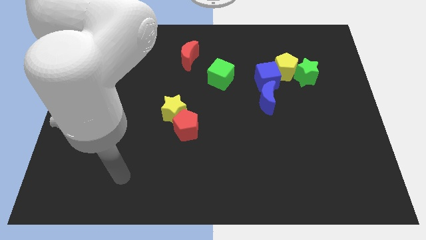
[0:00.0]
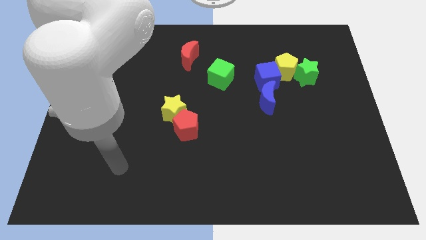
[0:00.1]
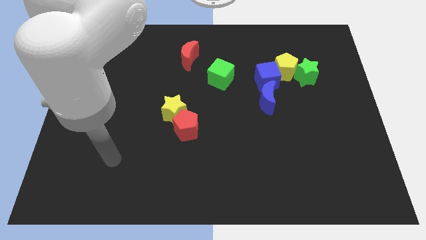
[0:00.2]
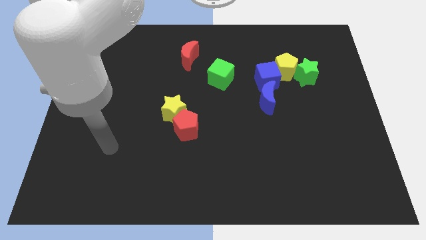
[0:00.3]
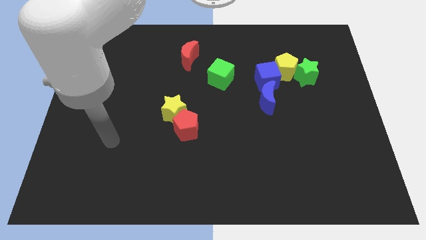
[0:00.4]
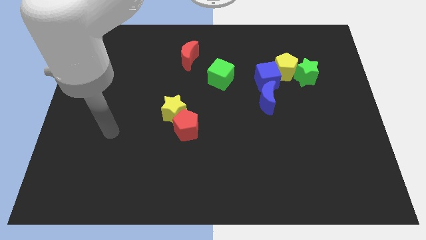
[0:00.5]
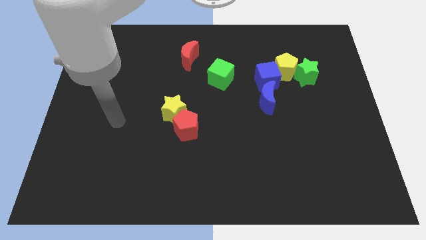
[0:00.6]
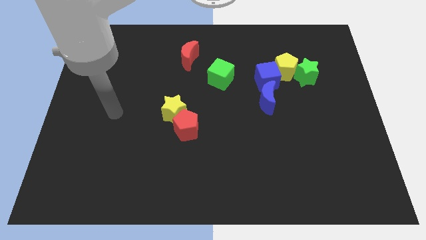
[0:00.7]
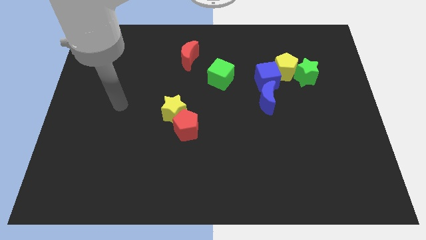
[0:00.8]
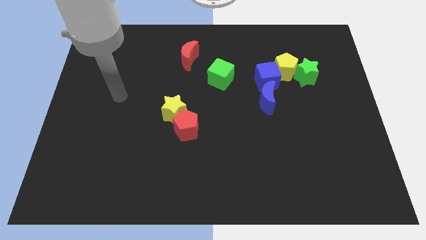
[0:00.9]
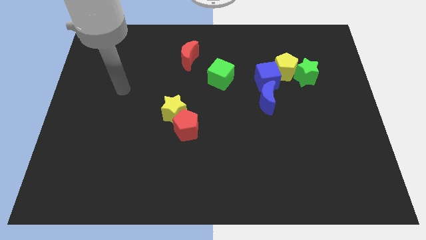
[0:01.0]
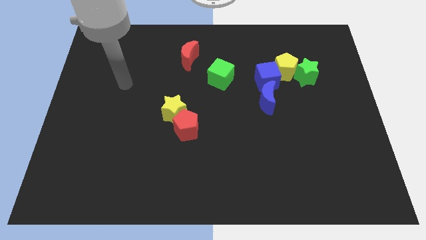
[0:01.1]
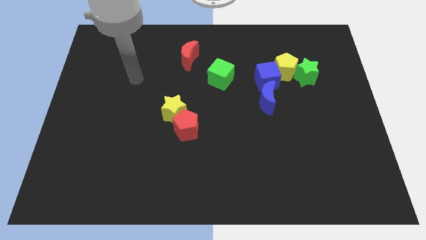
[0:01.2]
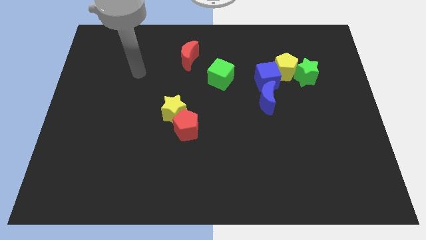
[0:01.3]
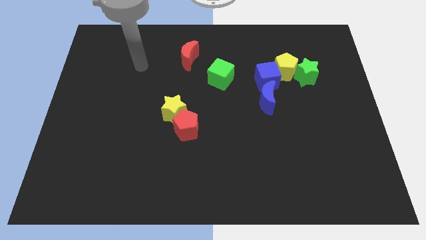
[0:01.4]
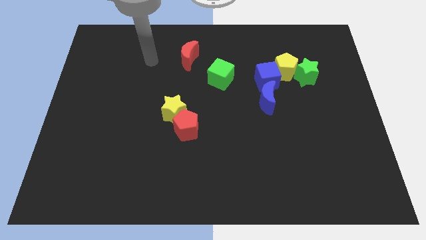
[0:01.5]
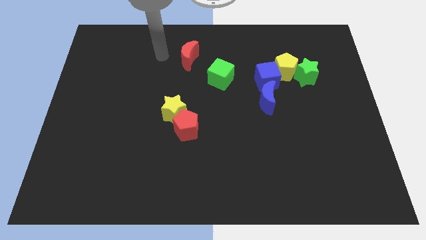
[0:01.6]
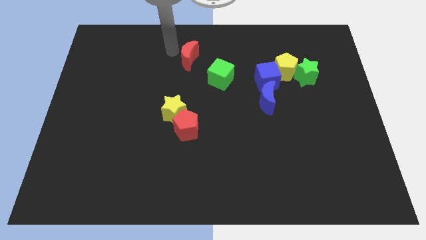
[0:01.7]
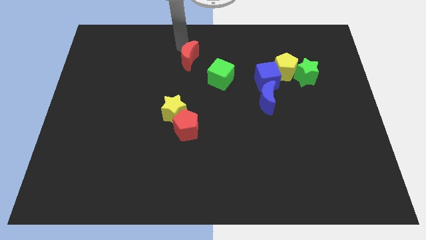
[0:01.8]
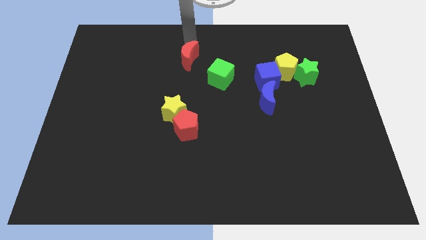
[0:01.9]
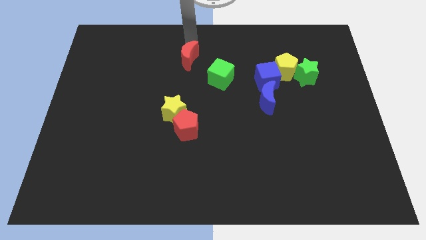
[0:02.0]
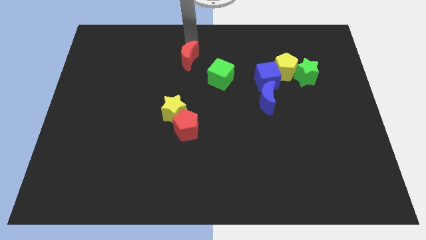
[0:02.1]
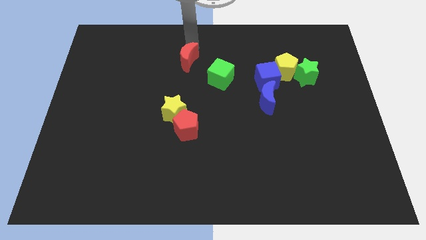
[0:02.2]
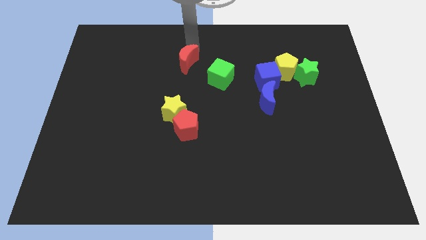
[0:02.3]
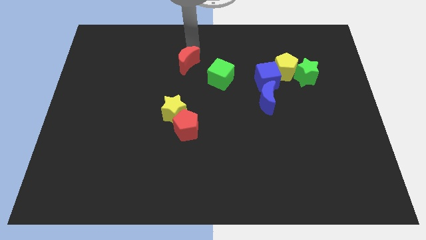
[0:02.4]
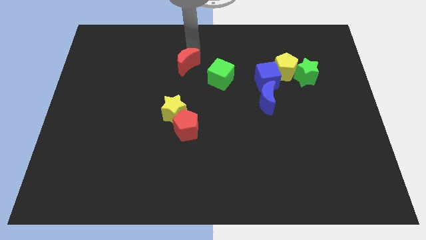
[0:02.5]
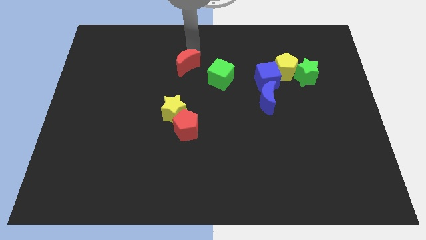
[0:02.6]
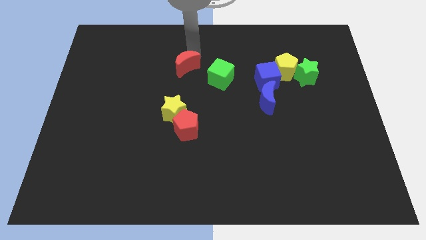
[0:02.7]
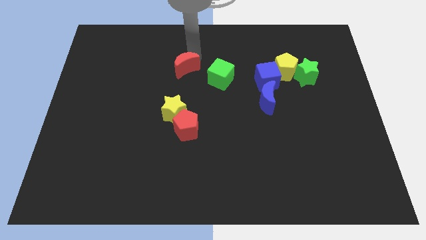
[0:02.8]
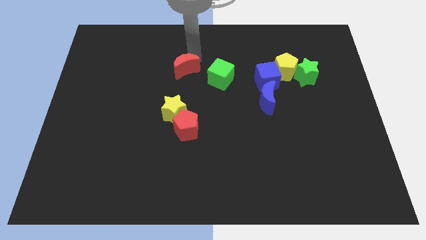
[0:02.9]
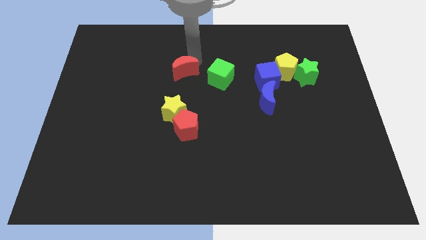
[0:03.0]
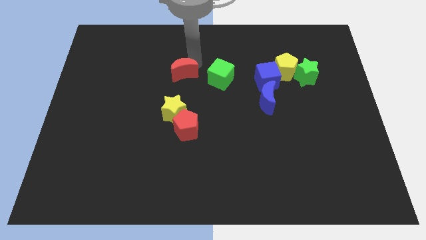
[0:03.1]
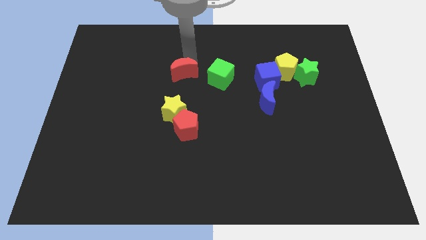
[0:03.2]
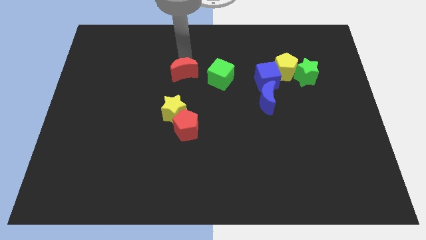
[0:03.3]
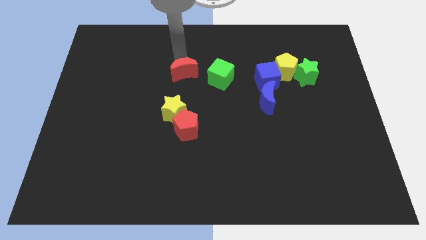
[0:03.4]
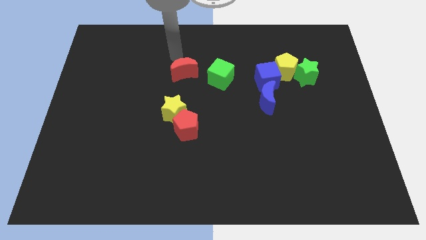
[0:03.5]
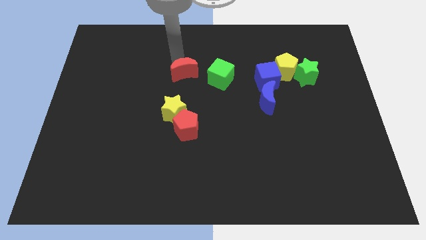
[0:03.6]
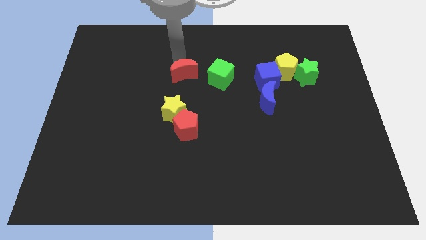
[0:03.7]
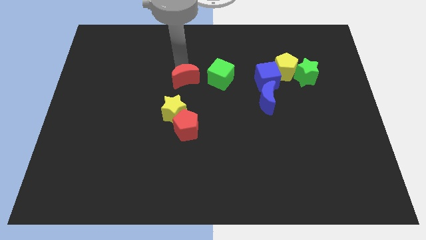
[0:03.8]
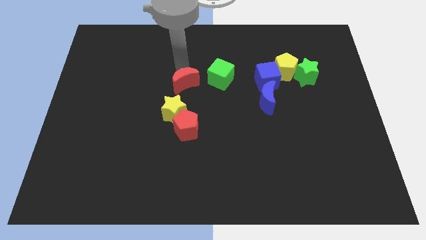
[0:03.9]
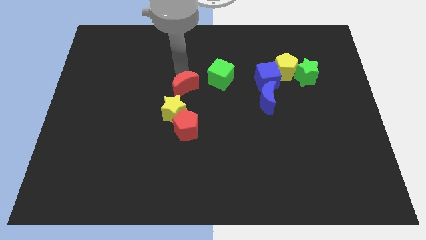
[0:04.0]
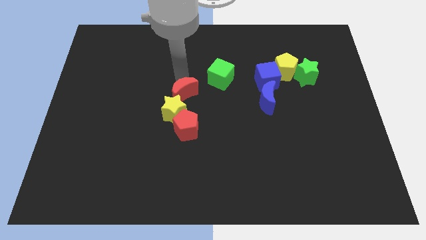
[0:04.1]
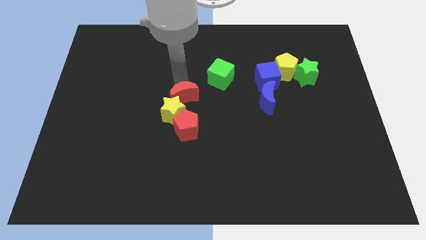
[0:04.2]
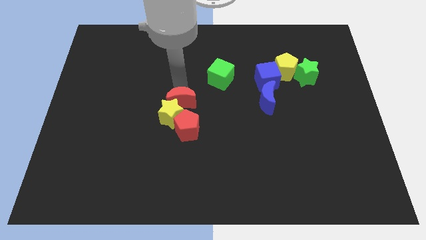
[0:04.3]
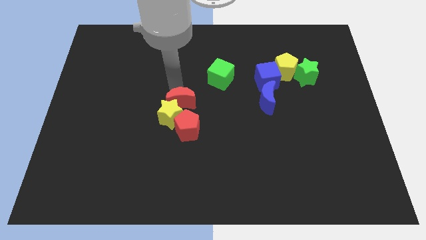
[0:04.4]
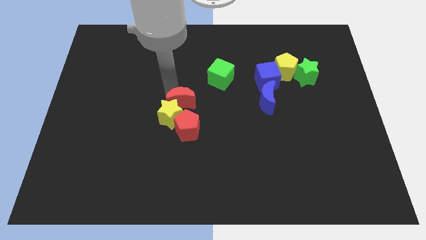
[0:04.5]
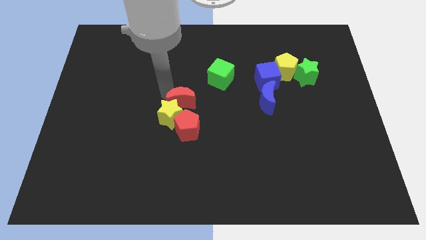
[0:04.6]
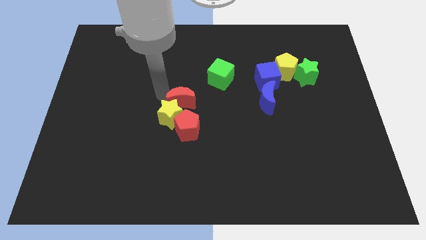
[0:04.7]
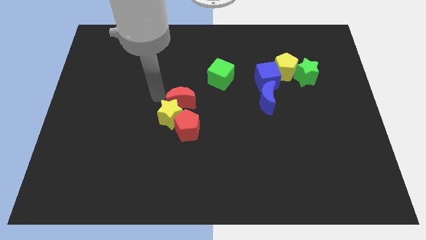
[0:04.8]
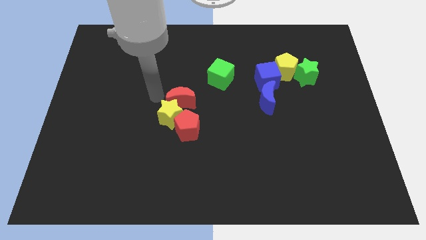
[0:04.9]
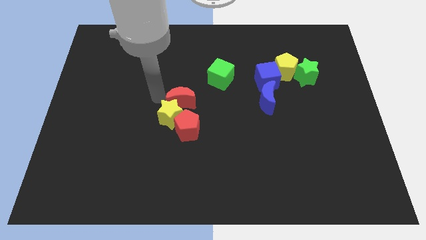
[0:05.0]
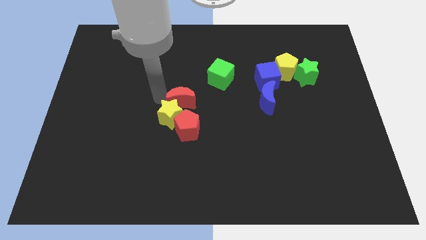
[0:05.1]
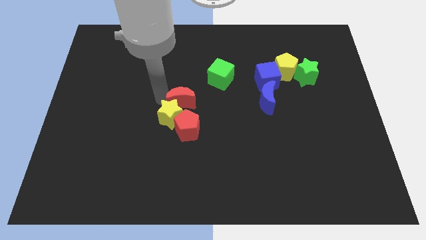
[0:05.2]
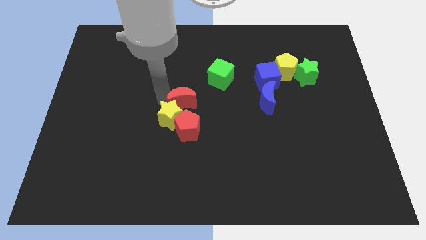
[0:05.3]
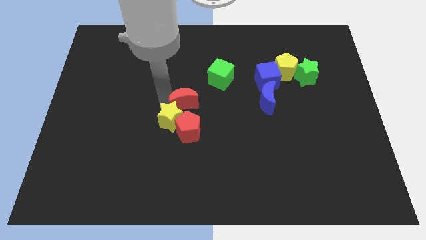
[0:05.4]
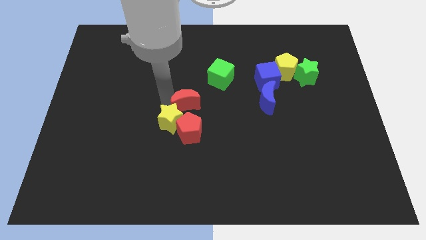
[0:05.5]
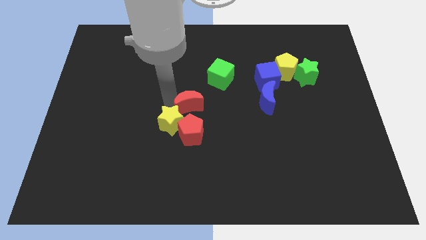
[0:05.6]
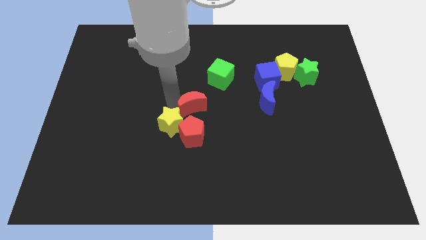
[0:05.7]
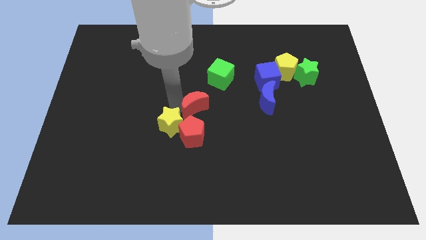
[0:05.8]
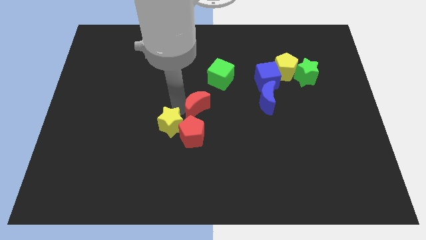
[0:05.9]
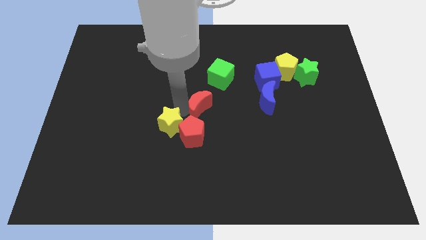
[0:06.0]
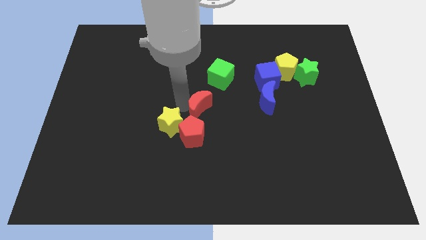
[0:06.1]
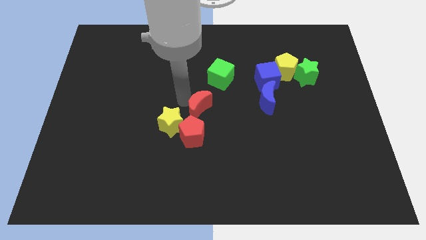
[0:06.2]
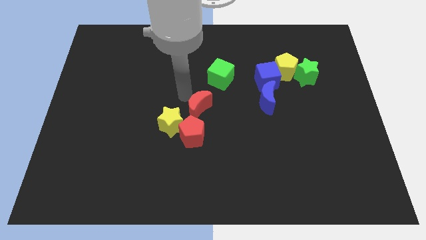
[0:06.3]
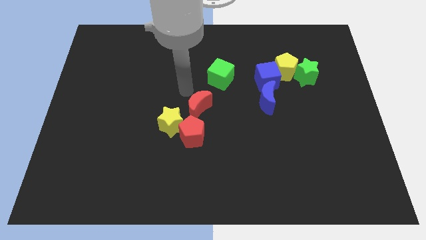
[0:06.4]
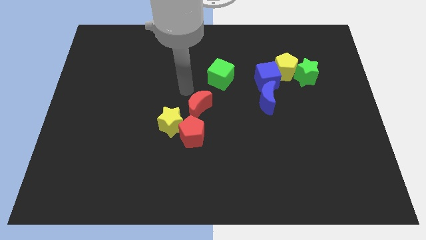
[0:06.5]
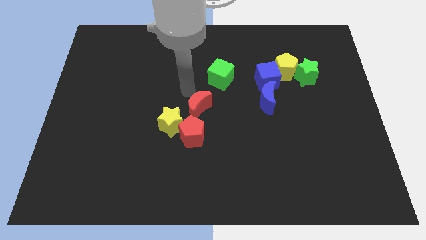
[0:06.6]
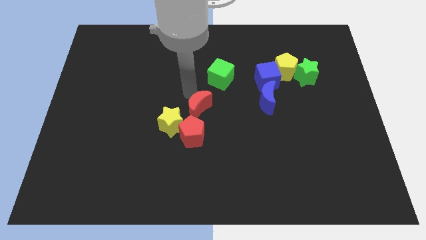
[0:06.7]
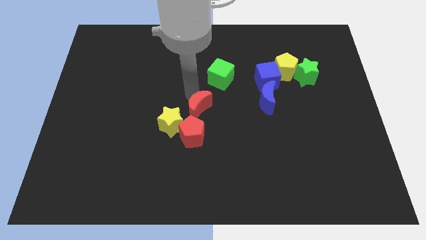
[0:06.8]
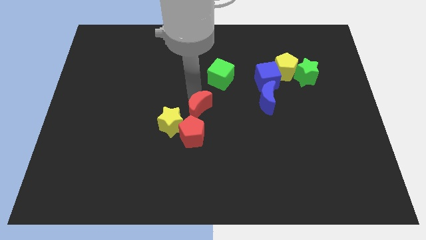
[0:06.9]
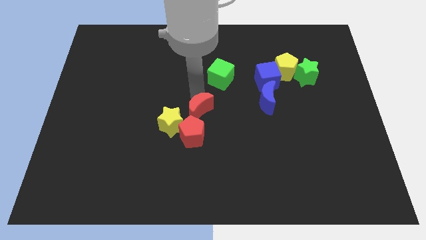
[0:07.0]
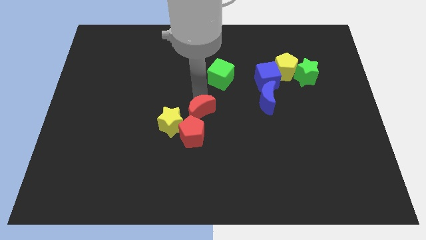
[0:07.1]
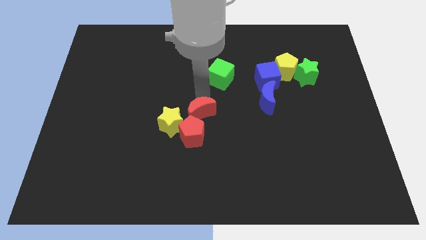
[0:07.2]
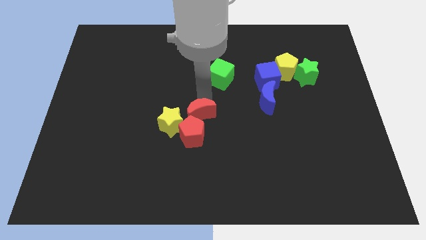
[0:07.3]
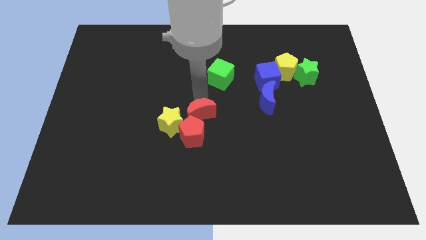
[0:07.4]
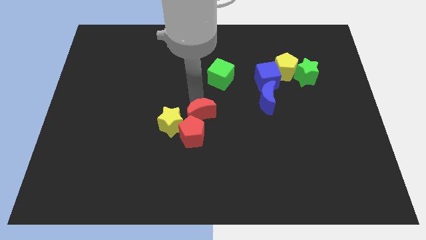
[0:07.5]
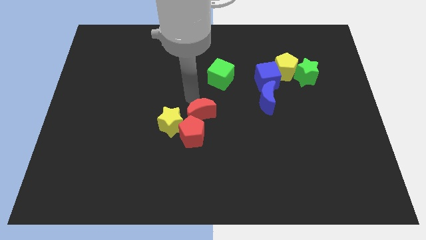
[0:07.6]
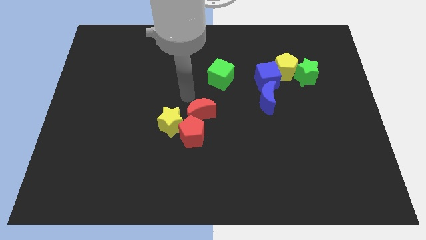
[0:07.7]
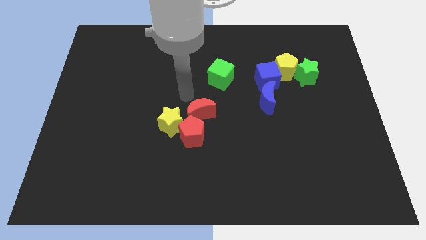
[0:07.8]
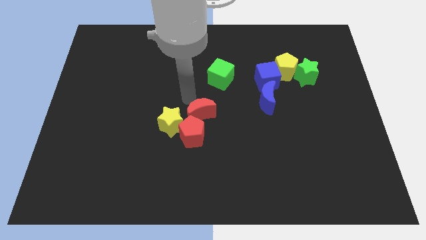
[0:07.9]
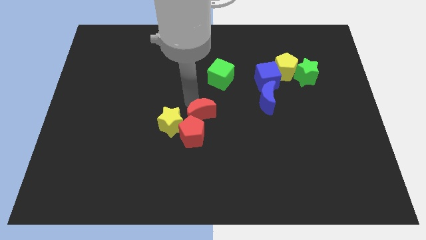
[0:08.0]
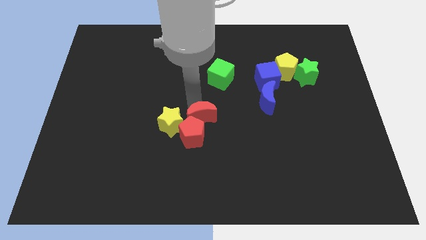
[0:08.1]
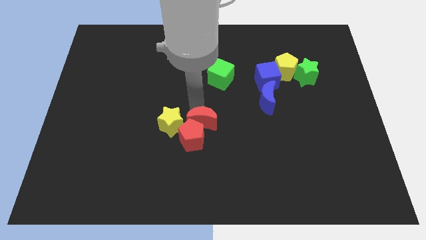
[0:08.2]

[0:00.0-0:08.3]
slide the red moon downwards
